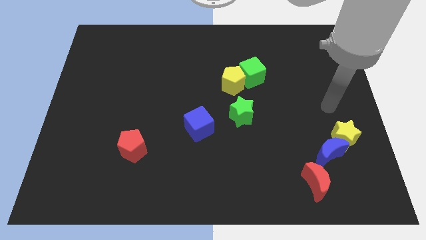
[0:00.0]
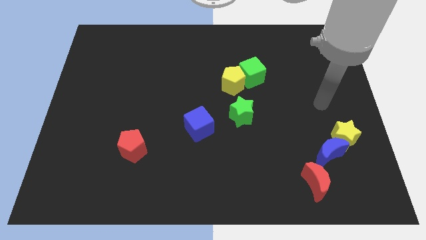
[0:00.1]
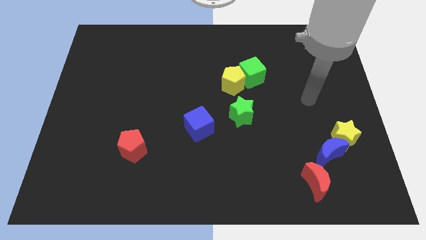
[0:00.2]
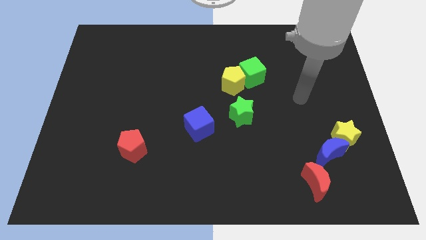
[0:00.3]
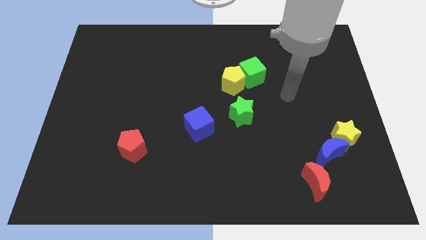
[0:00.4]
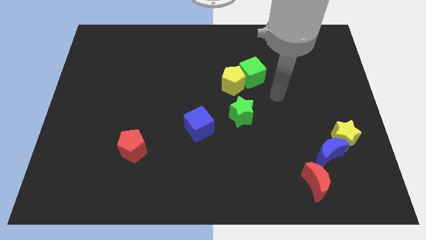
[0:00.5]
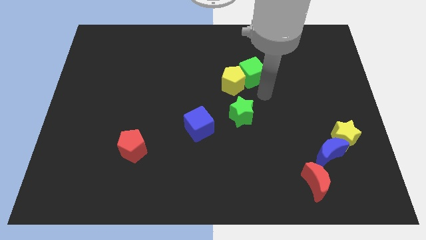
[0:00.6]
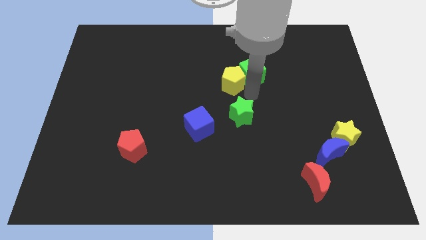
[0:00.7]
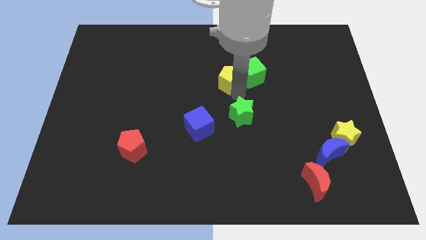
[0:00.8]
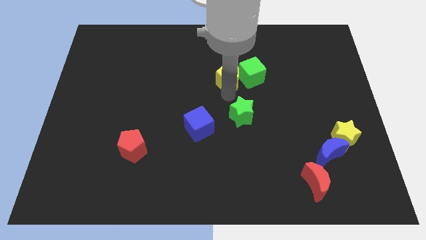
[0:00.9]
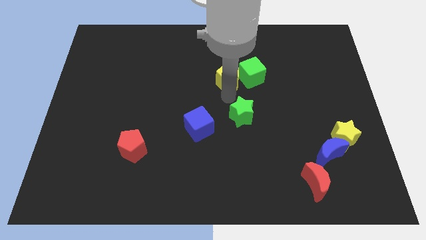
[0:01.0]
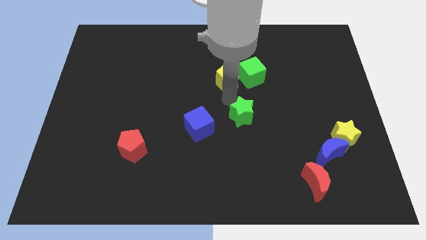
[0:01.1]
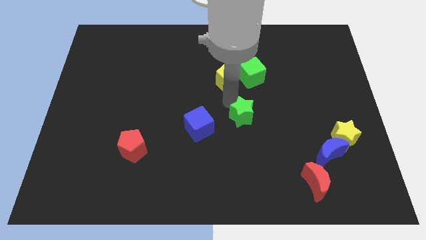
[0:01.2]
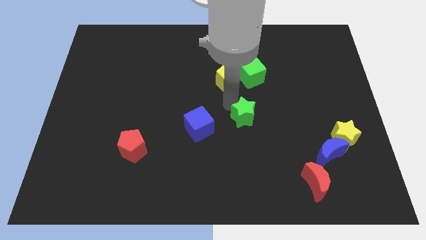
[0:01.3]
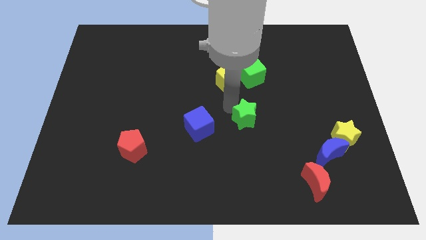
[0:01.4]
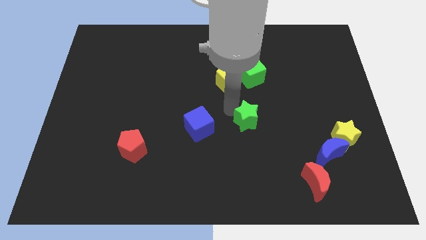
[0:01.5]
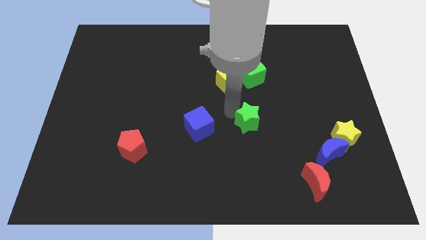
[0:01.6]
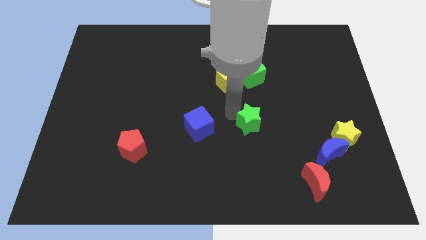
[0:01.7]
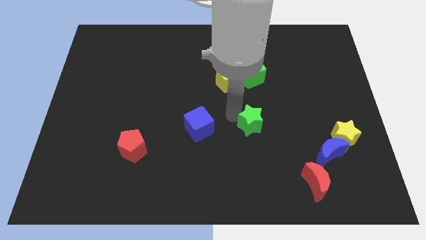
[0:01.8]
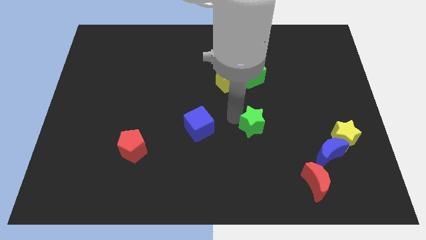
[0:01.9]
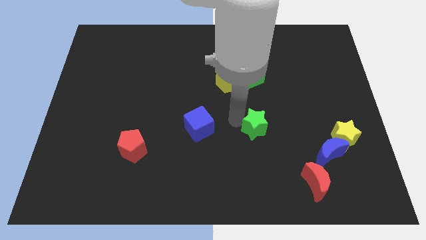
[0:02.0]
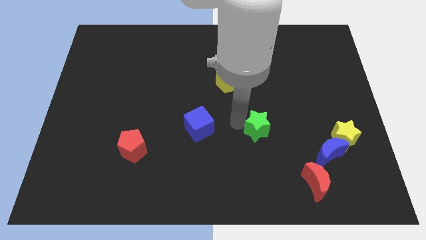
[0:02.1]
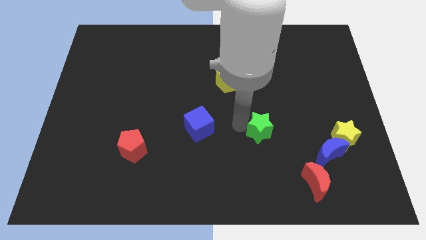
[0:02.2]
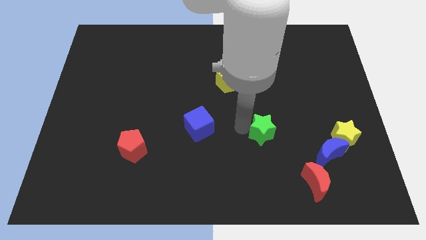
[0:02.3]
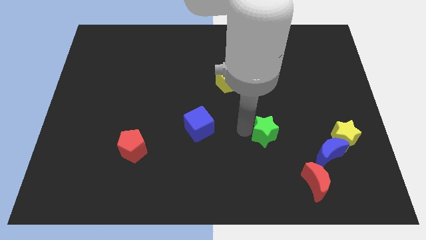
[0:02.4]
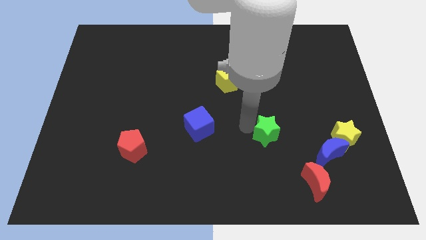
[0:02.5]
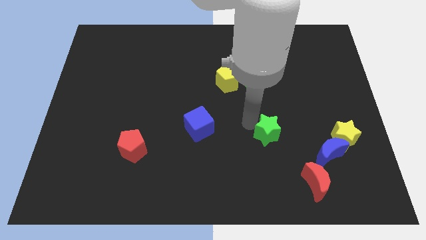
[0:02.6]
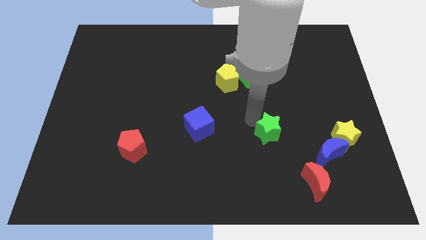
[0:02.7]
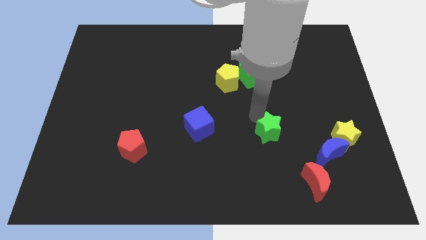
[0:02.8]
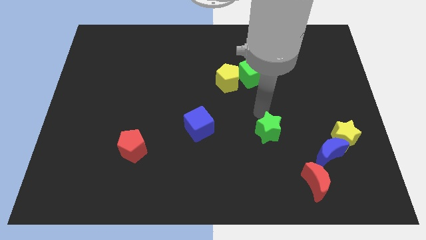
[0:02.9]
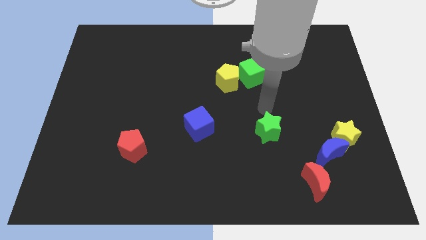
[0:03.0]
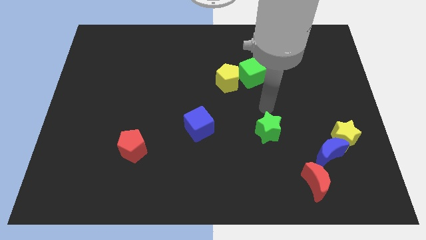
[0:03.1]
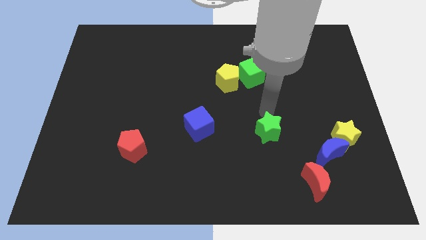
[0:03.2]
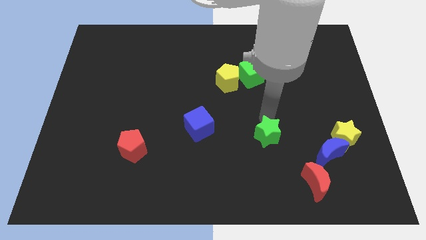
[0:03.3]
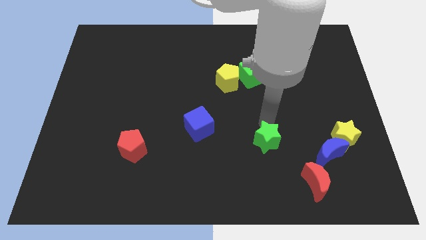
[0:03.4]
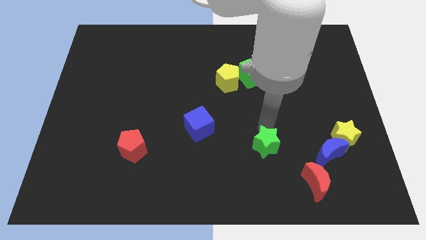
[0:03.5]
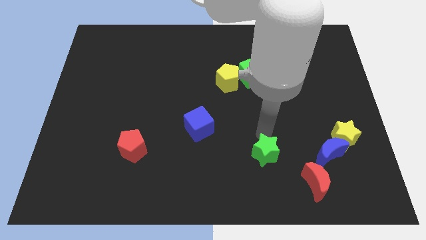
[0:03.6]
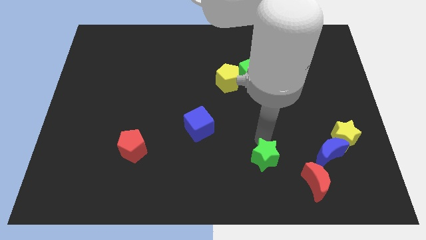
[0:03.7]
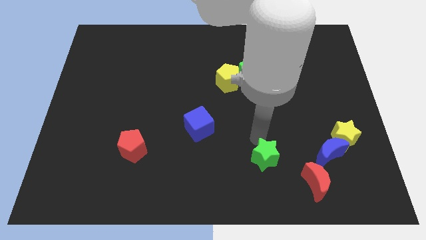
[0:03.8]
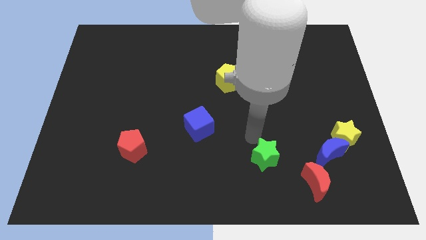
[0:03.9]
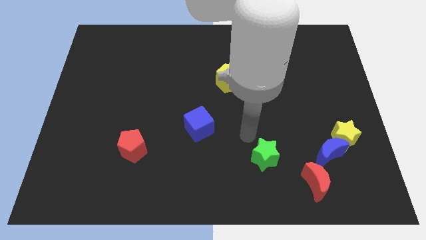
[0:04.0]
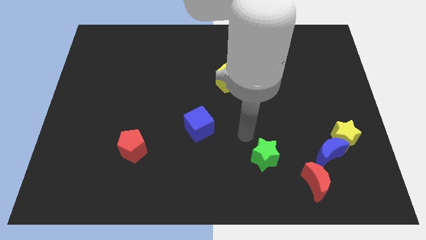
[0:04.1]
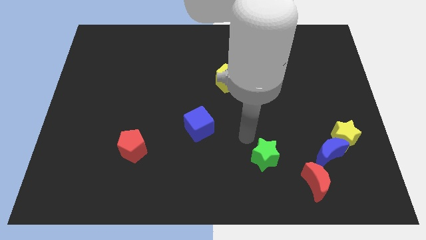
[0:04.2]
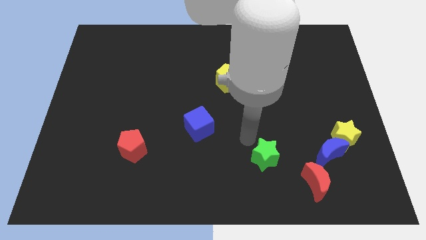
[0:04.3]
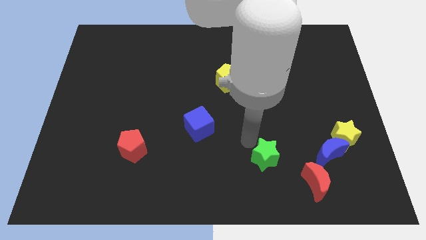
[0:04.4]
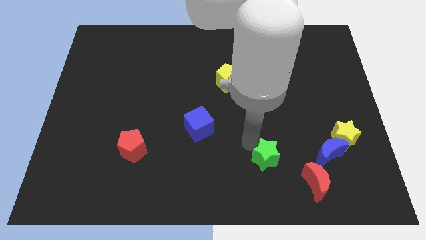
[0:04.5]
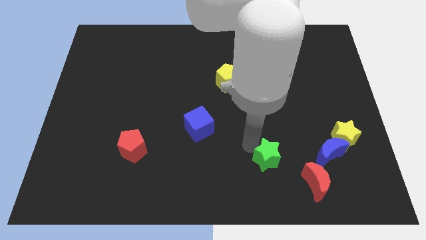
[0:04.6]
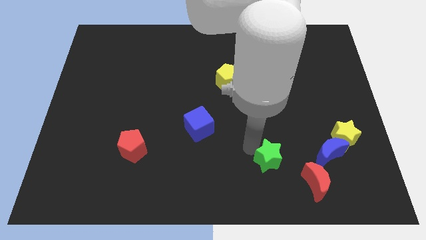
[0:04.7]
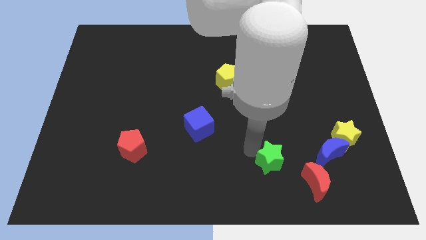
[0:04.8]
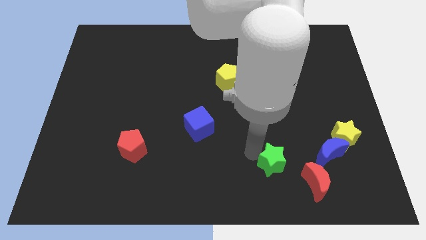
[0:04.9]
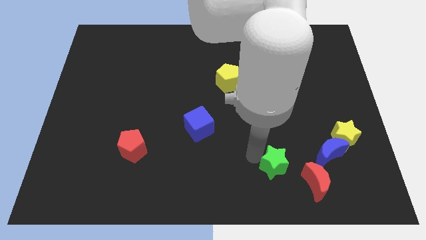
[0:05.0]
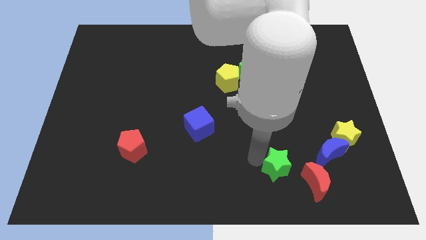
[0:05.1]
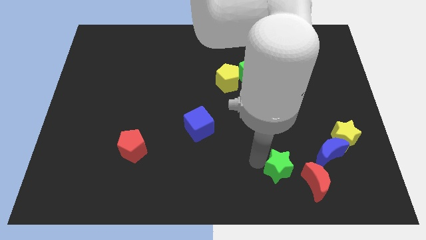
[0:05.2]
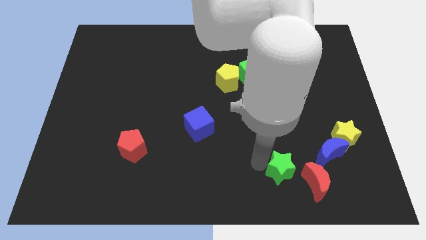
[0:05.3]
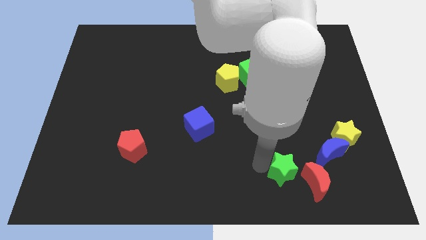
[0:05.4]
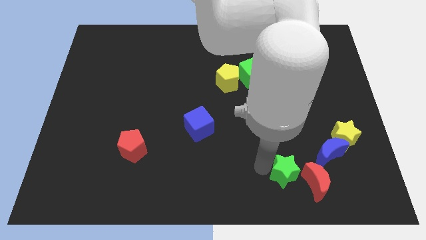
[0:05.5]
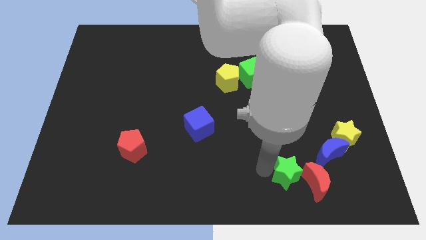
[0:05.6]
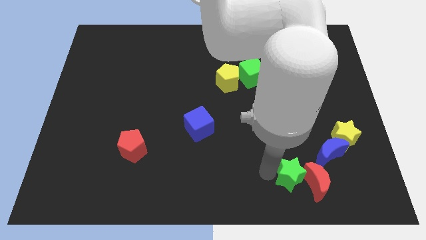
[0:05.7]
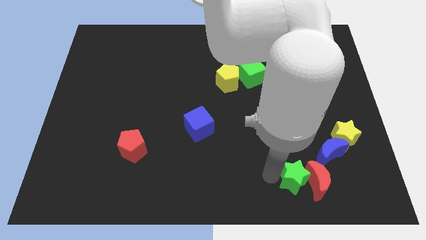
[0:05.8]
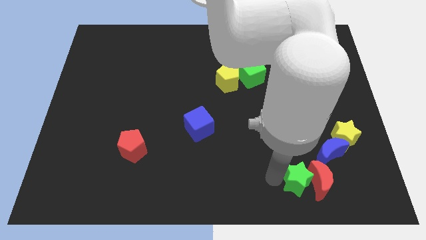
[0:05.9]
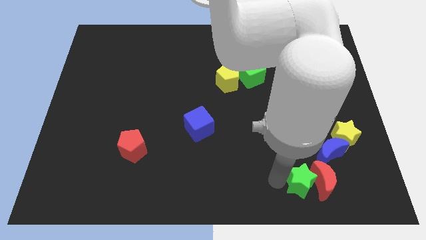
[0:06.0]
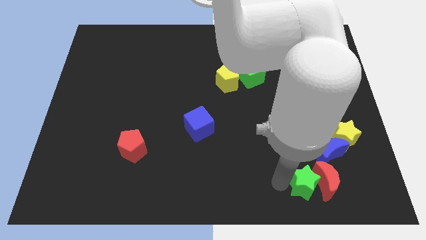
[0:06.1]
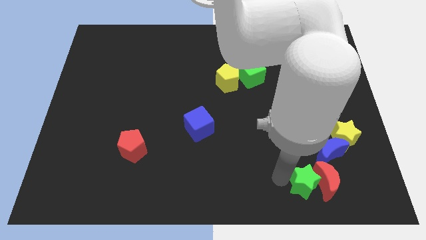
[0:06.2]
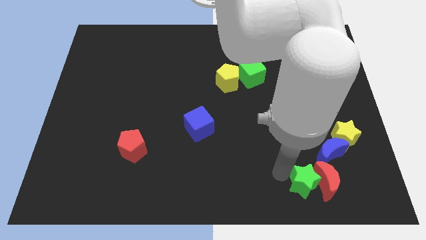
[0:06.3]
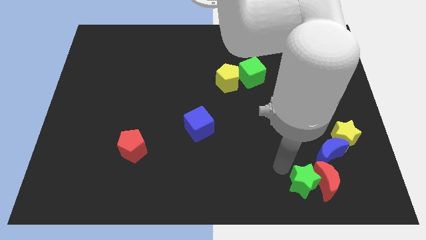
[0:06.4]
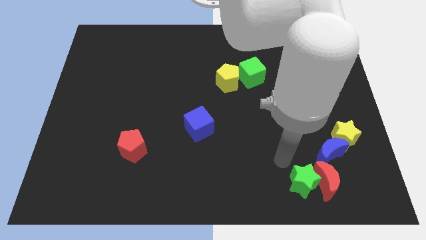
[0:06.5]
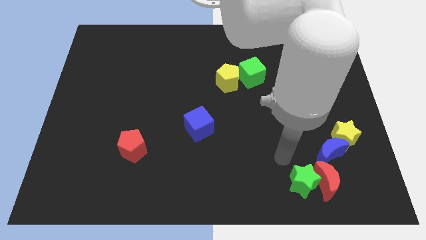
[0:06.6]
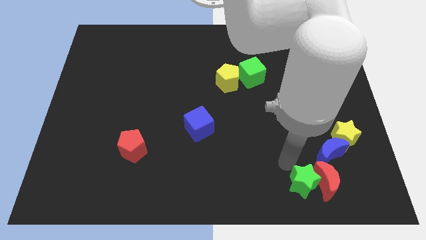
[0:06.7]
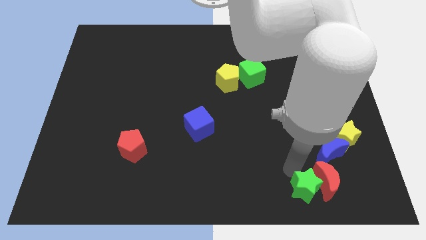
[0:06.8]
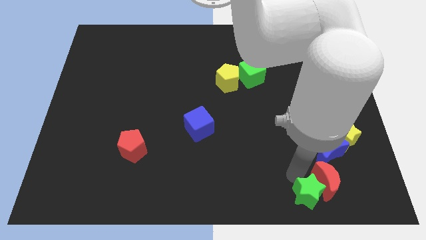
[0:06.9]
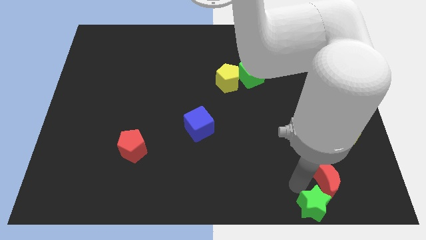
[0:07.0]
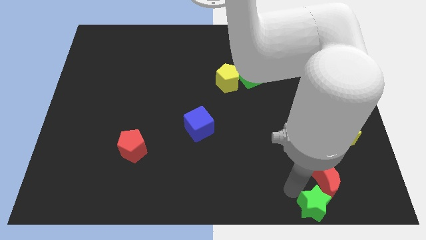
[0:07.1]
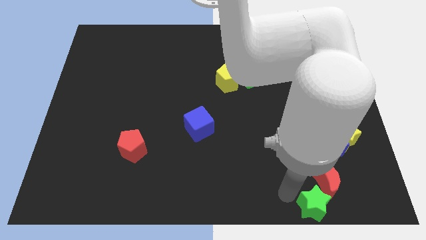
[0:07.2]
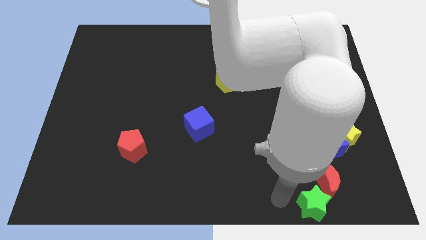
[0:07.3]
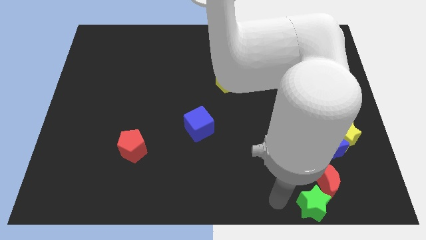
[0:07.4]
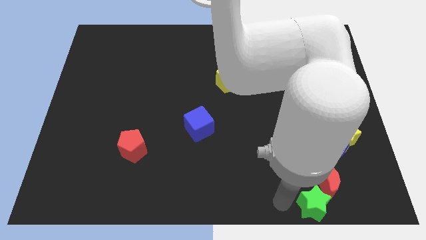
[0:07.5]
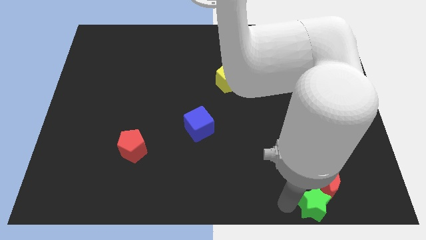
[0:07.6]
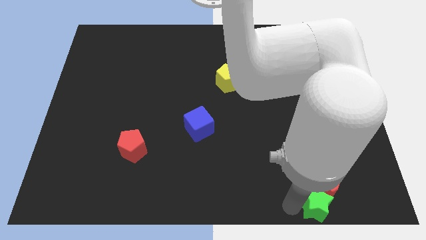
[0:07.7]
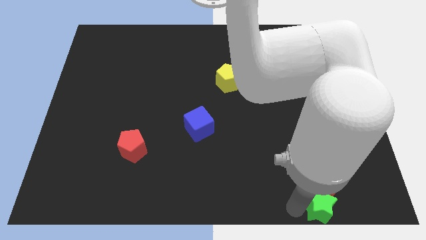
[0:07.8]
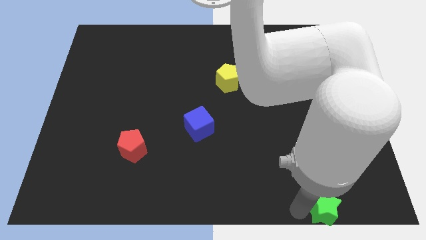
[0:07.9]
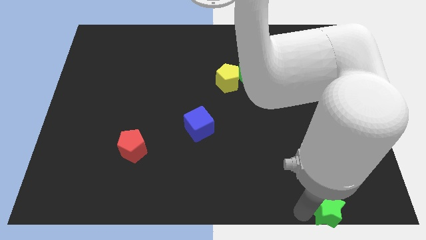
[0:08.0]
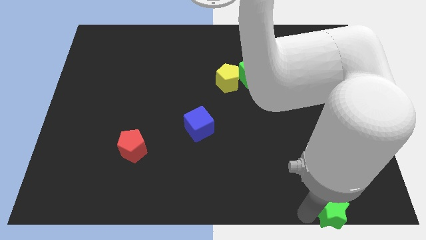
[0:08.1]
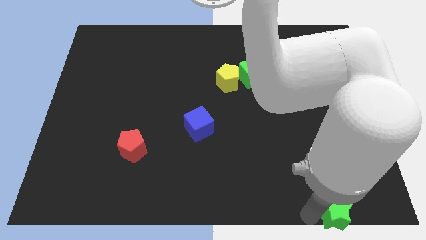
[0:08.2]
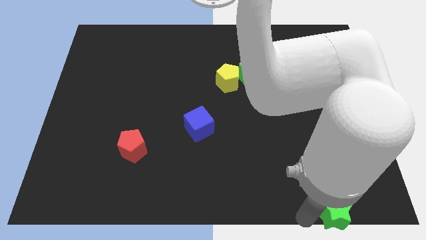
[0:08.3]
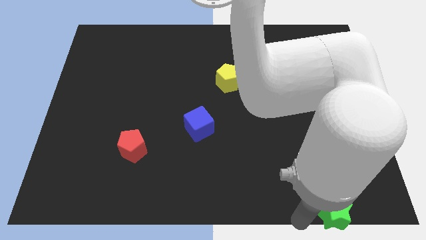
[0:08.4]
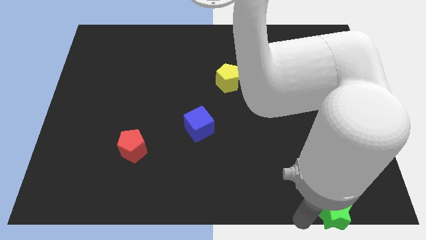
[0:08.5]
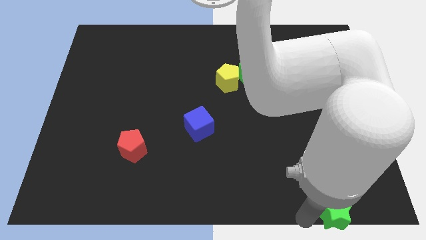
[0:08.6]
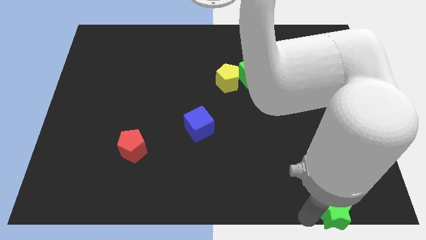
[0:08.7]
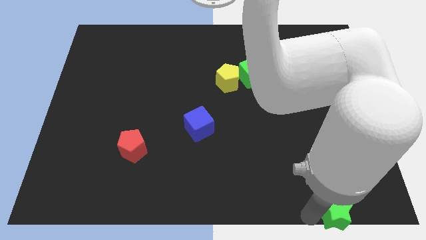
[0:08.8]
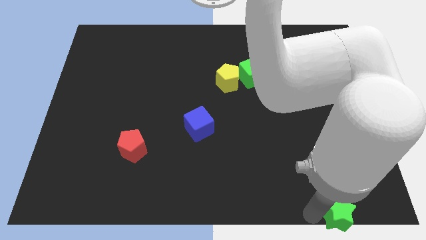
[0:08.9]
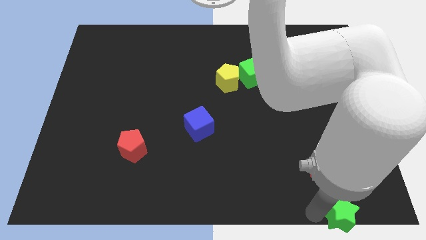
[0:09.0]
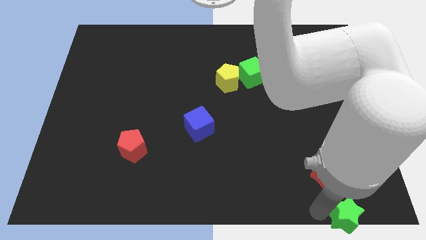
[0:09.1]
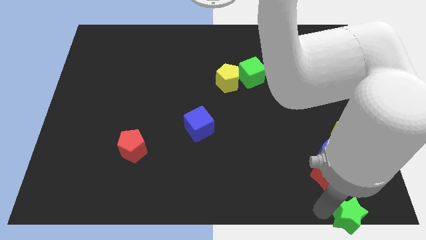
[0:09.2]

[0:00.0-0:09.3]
push the green star to the lower right corner
